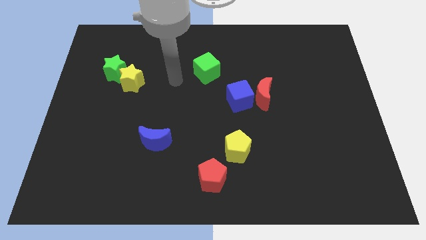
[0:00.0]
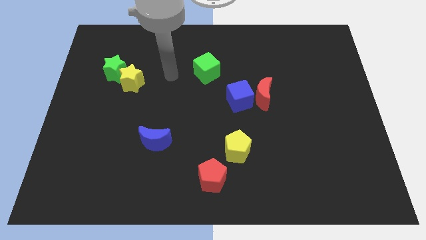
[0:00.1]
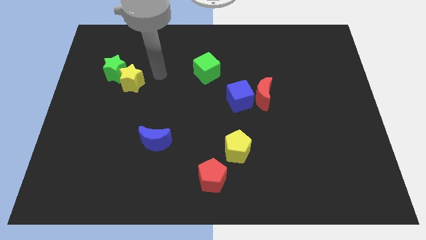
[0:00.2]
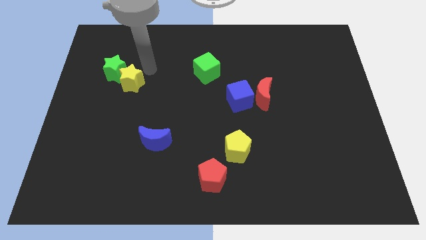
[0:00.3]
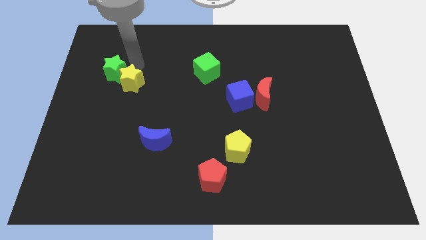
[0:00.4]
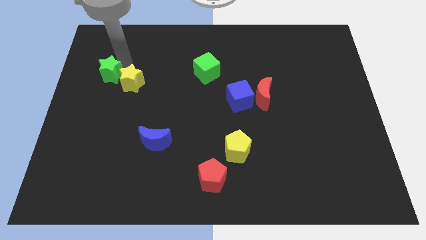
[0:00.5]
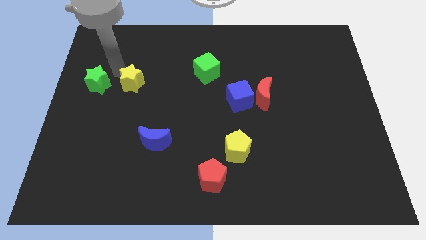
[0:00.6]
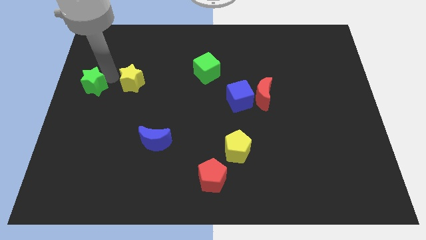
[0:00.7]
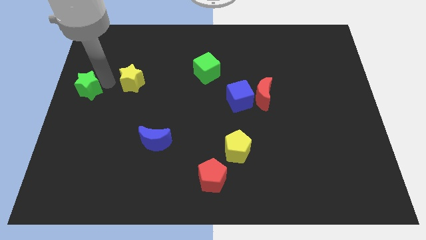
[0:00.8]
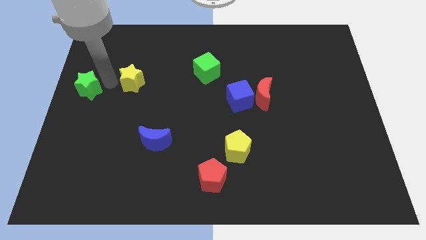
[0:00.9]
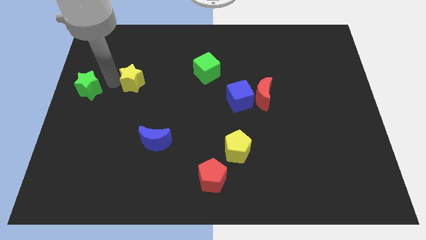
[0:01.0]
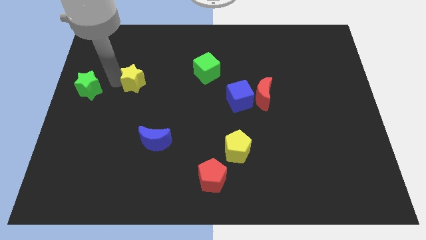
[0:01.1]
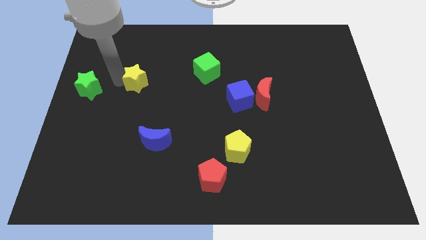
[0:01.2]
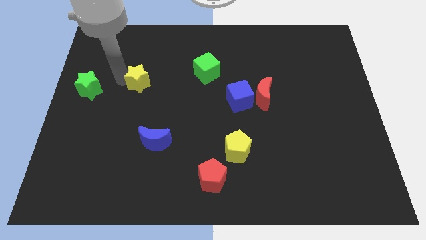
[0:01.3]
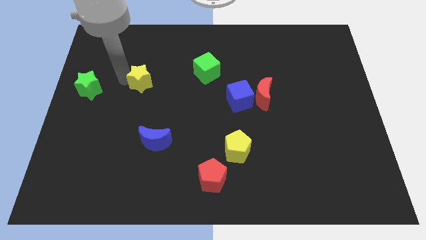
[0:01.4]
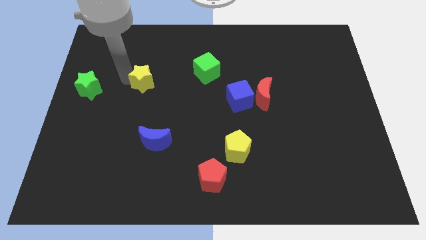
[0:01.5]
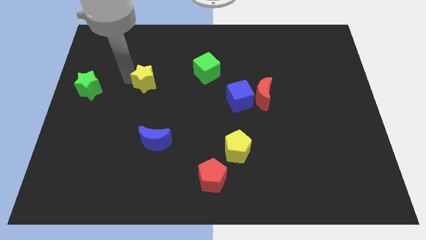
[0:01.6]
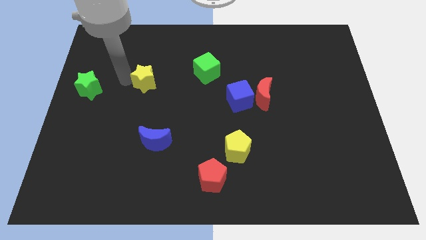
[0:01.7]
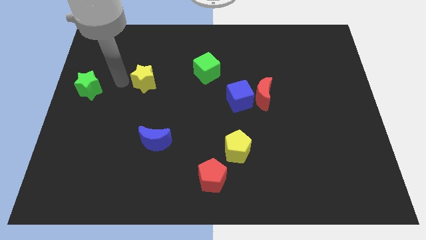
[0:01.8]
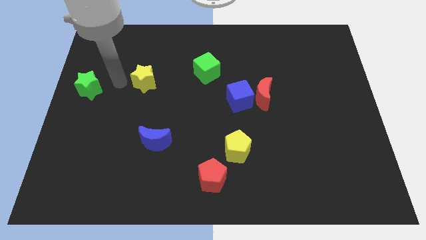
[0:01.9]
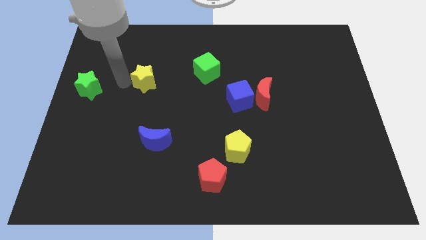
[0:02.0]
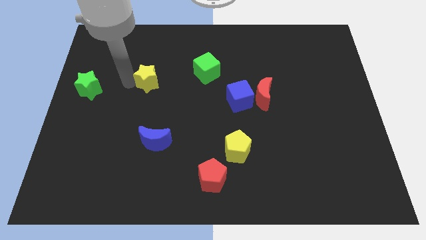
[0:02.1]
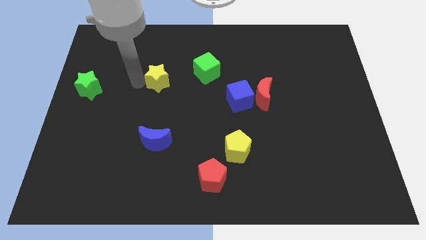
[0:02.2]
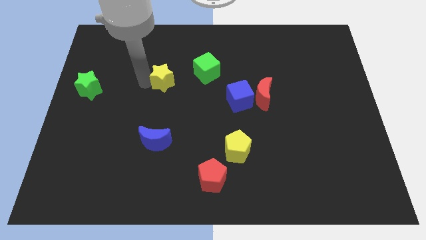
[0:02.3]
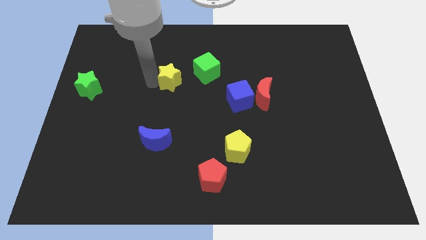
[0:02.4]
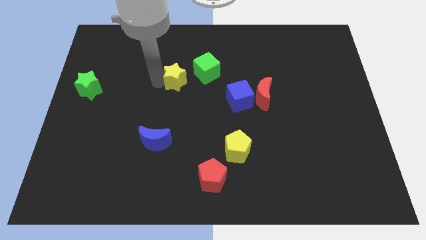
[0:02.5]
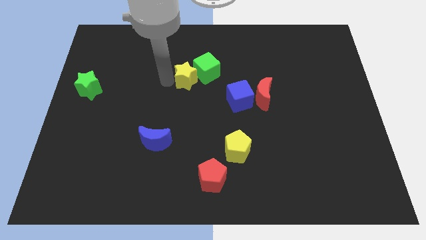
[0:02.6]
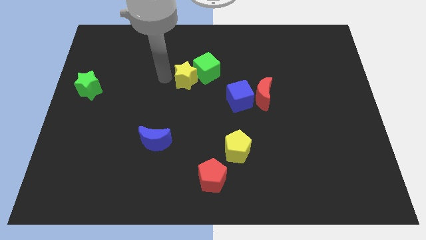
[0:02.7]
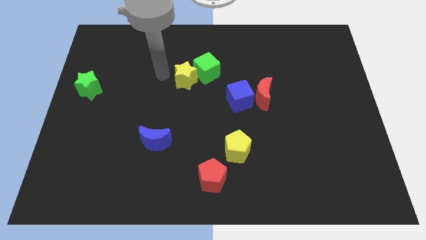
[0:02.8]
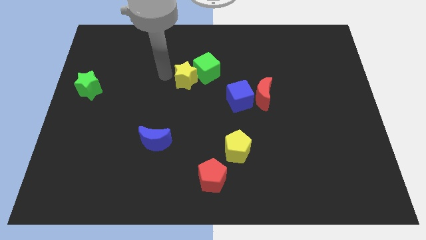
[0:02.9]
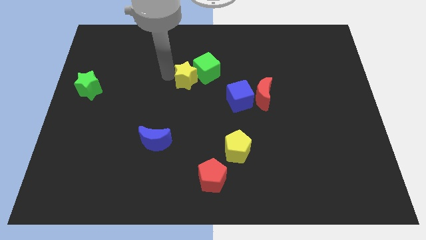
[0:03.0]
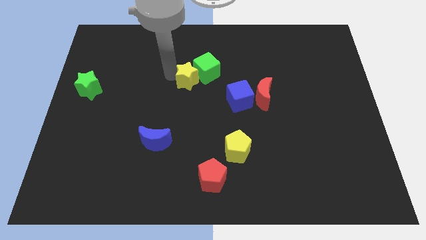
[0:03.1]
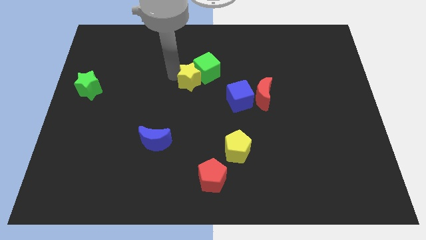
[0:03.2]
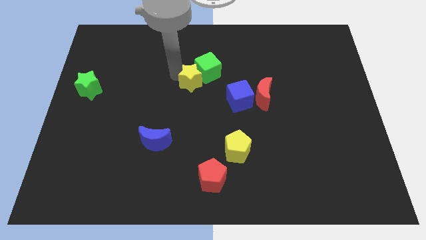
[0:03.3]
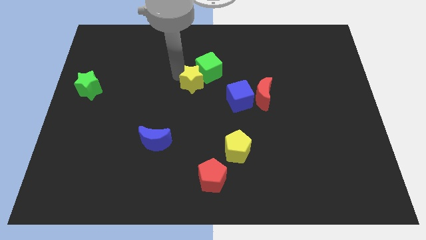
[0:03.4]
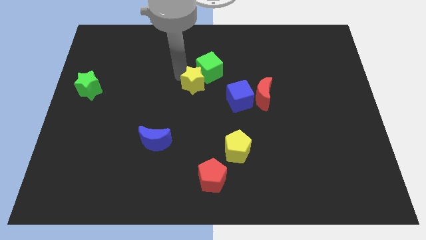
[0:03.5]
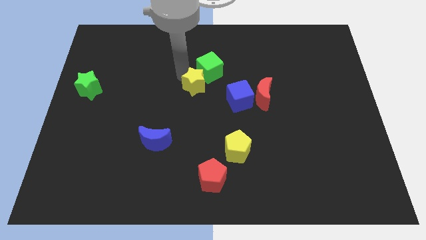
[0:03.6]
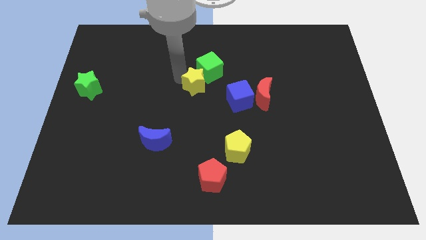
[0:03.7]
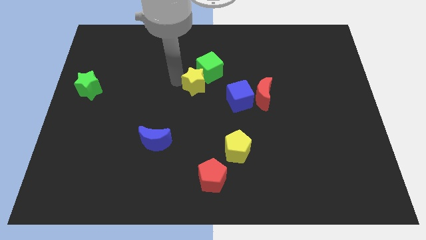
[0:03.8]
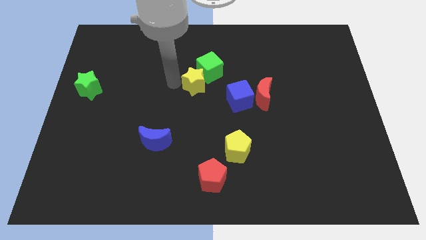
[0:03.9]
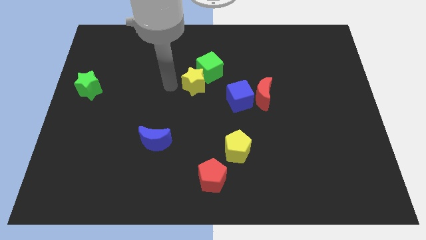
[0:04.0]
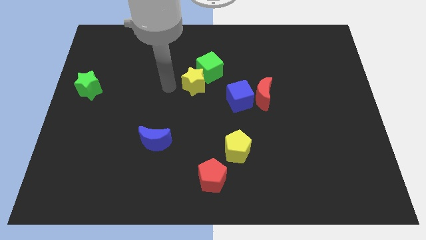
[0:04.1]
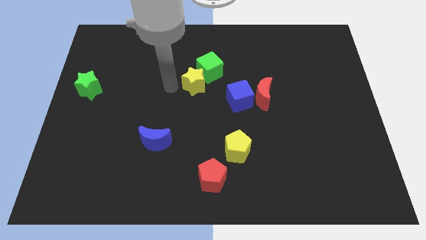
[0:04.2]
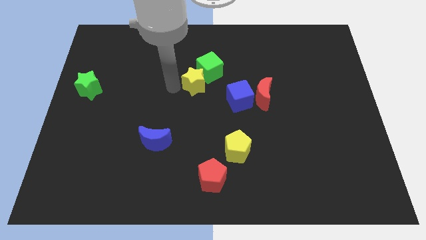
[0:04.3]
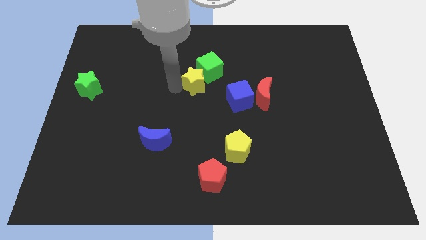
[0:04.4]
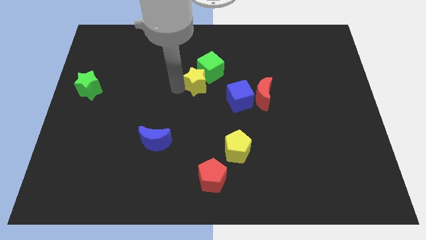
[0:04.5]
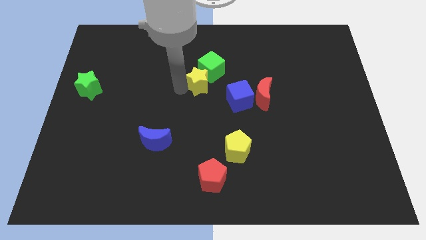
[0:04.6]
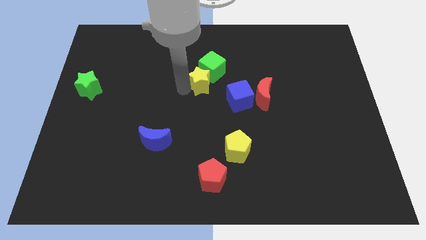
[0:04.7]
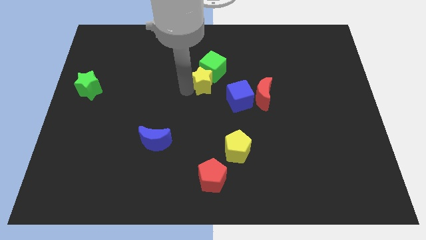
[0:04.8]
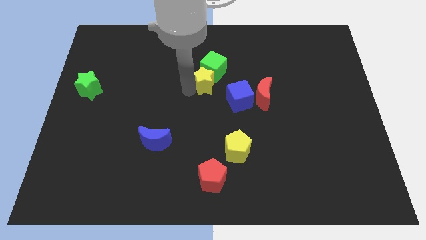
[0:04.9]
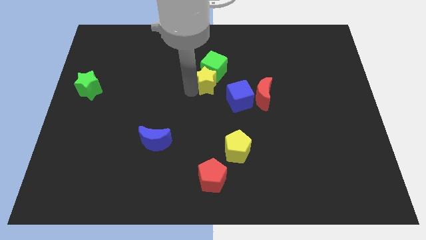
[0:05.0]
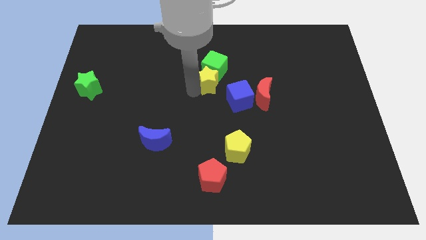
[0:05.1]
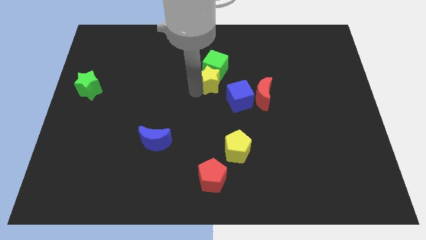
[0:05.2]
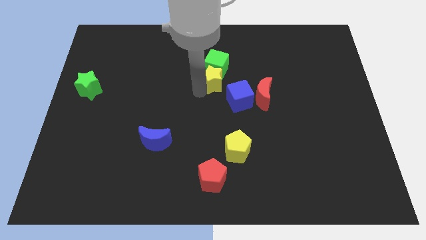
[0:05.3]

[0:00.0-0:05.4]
move the yellow star right

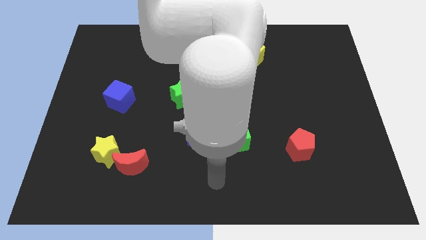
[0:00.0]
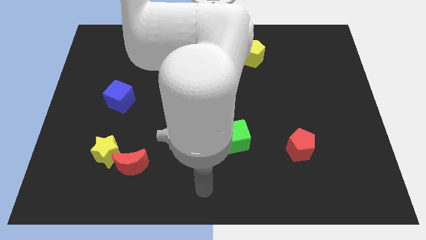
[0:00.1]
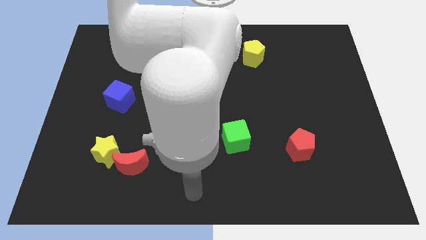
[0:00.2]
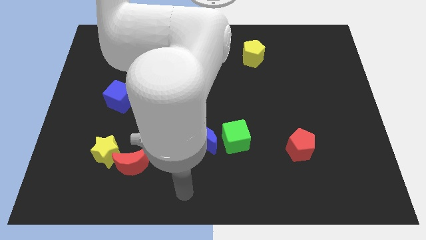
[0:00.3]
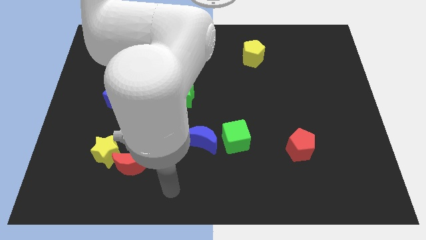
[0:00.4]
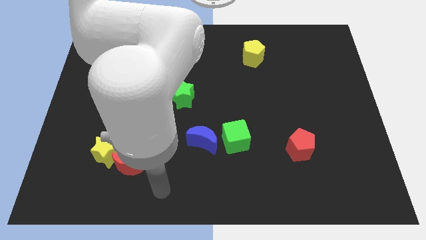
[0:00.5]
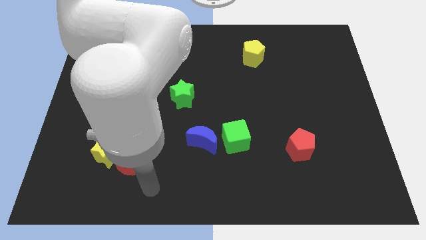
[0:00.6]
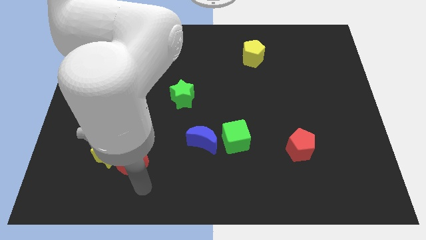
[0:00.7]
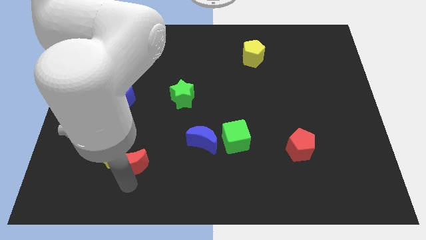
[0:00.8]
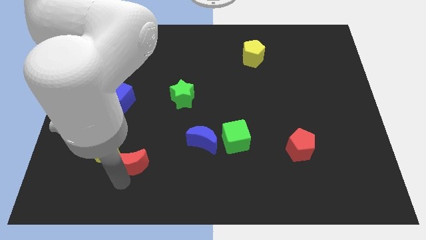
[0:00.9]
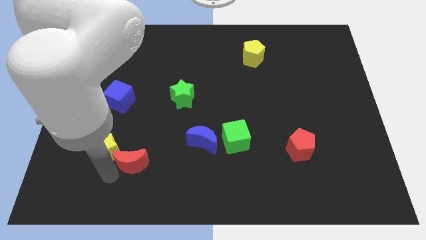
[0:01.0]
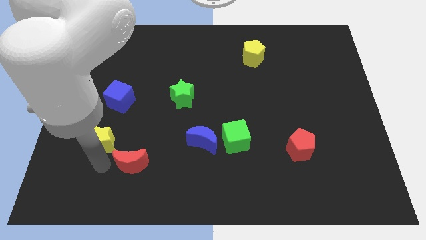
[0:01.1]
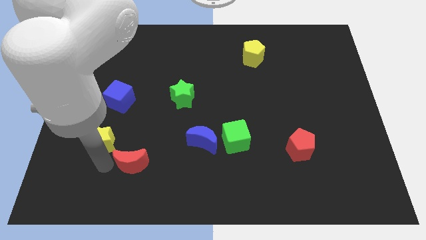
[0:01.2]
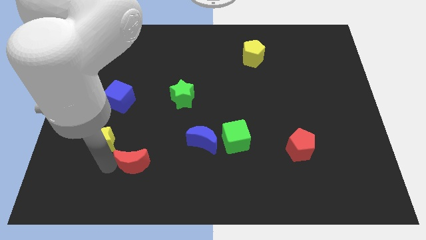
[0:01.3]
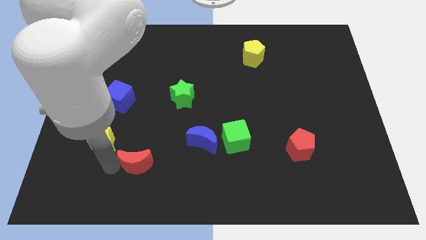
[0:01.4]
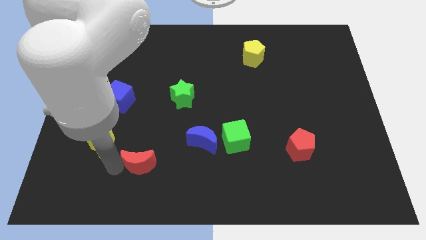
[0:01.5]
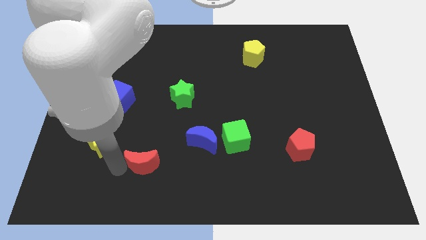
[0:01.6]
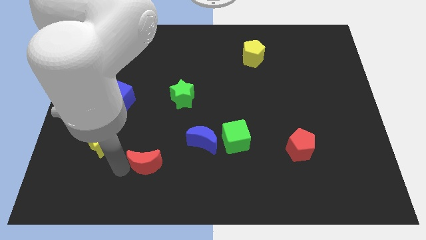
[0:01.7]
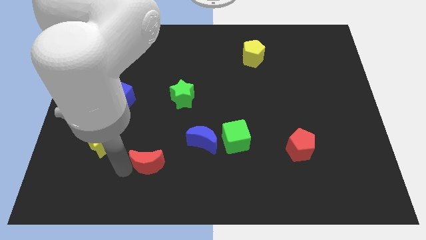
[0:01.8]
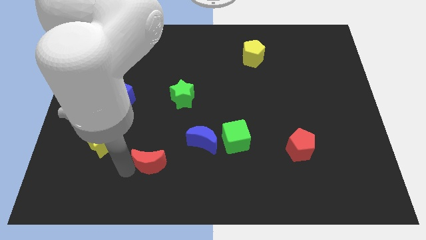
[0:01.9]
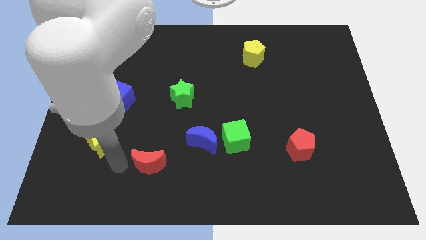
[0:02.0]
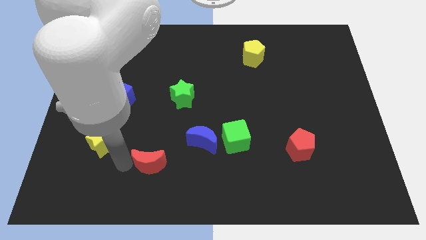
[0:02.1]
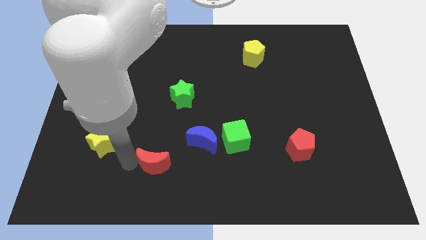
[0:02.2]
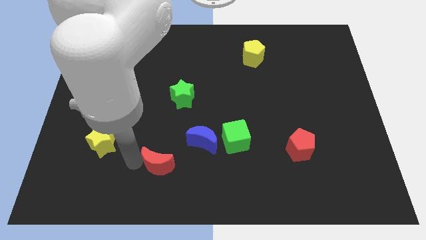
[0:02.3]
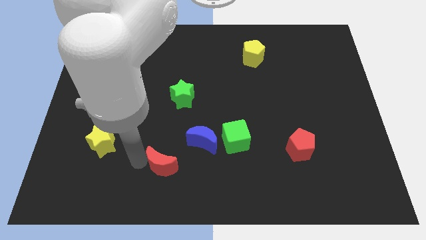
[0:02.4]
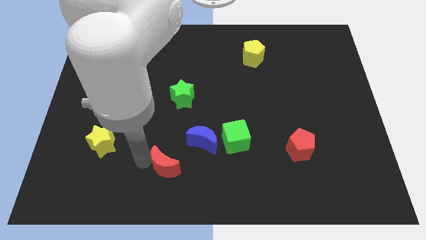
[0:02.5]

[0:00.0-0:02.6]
push the red moon to the right somewhat
